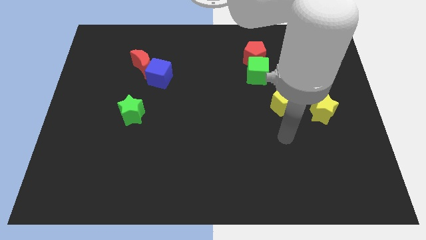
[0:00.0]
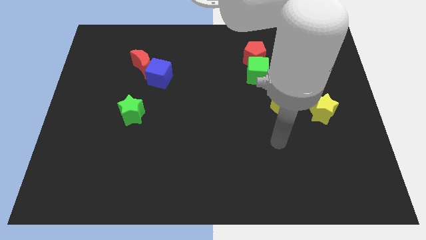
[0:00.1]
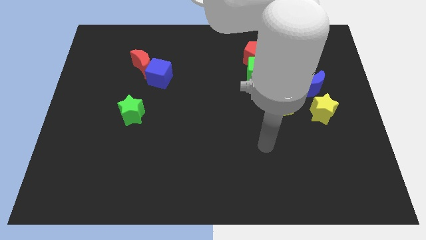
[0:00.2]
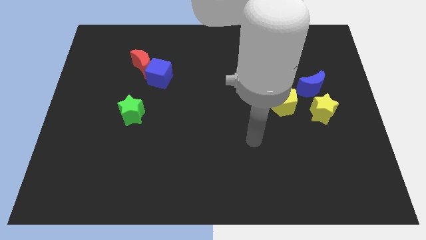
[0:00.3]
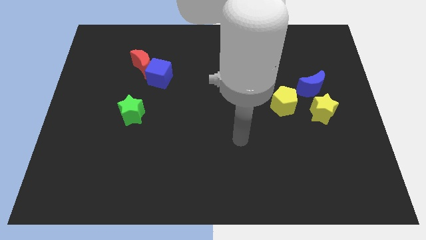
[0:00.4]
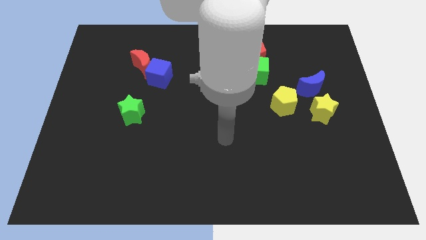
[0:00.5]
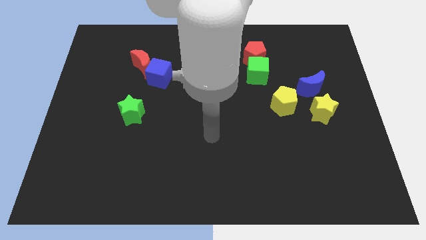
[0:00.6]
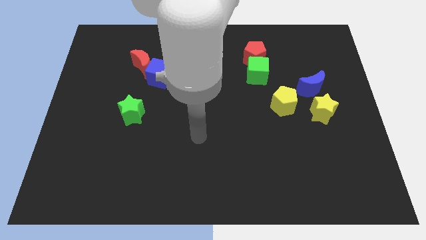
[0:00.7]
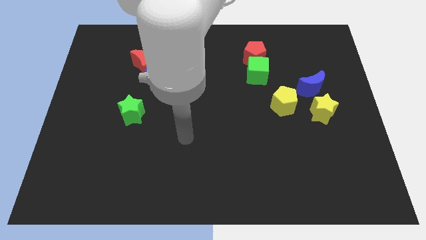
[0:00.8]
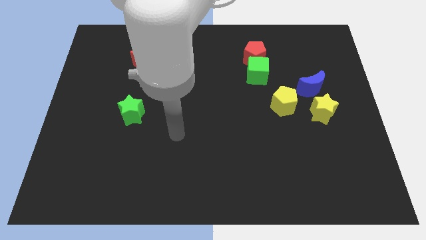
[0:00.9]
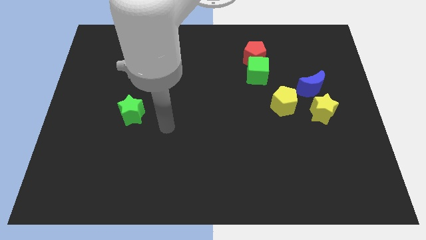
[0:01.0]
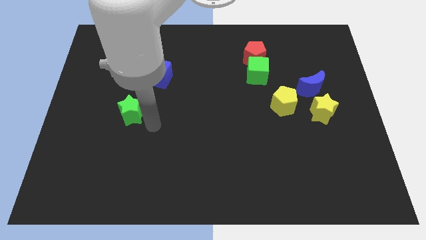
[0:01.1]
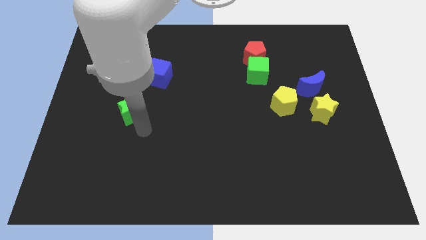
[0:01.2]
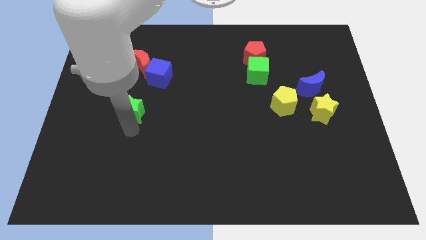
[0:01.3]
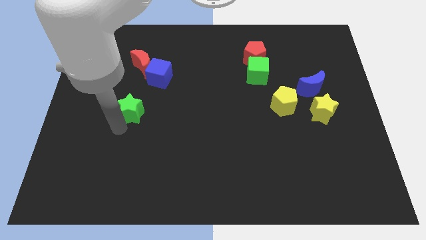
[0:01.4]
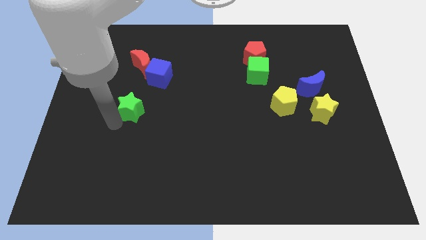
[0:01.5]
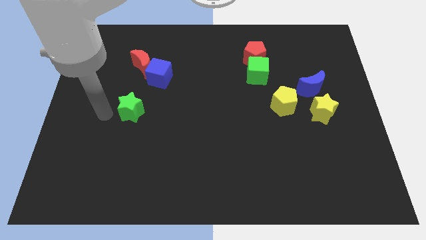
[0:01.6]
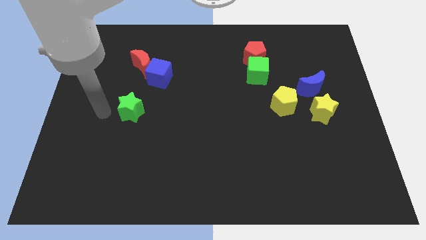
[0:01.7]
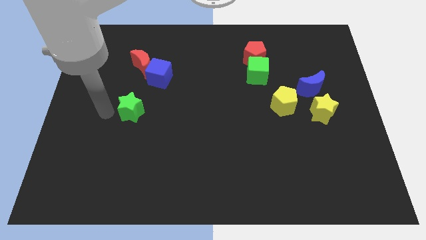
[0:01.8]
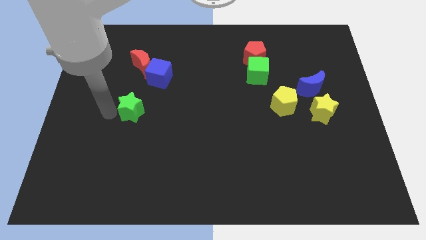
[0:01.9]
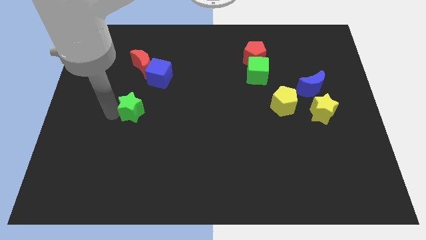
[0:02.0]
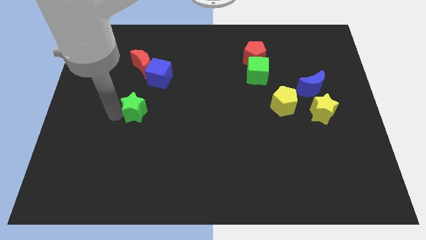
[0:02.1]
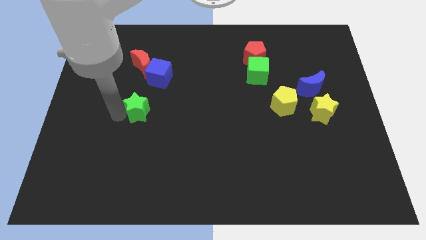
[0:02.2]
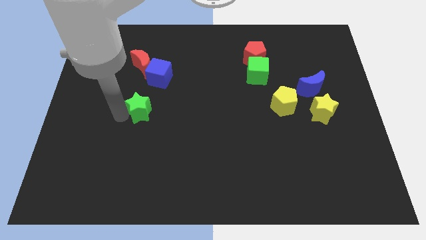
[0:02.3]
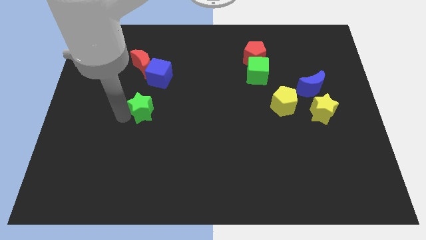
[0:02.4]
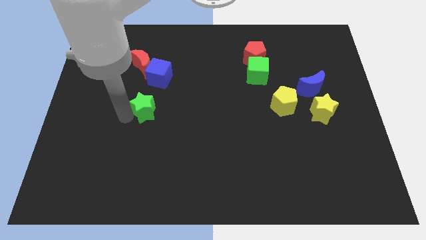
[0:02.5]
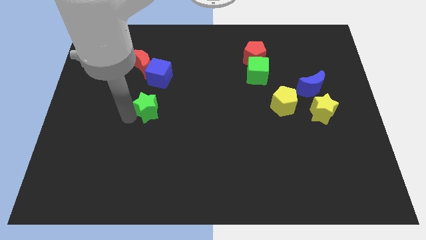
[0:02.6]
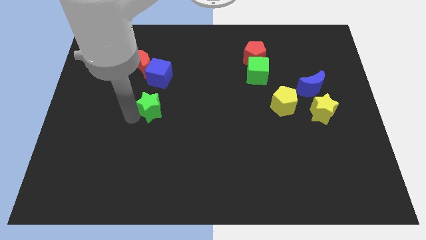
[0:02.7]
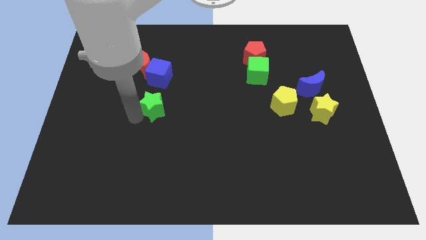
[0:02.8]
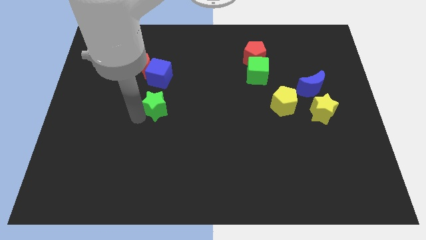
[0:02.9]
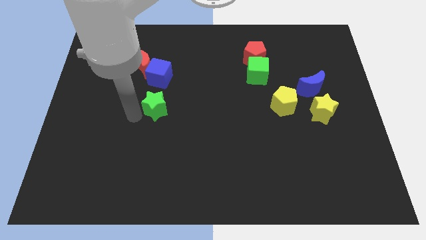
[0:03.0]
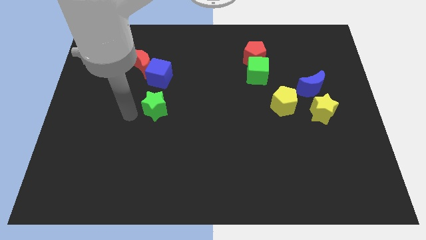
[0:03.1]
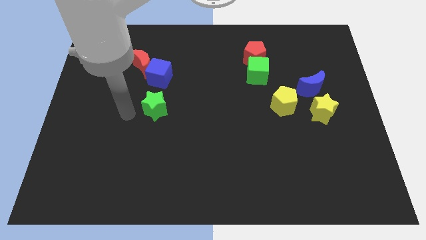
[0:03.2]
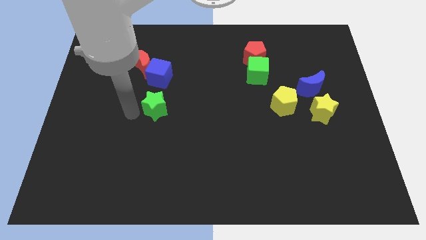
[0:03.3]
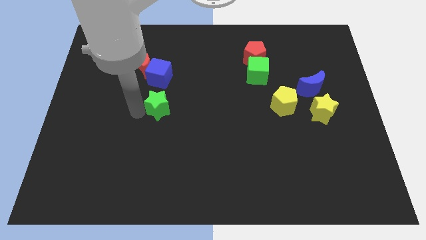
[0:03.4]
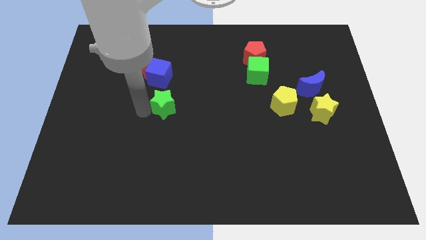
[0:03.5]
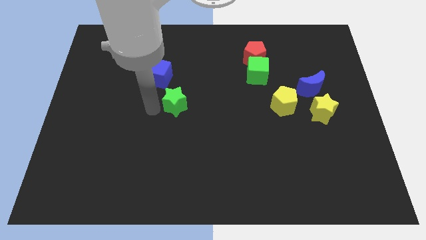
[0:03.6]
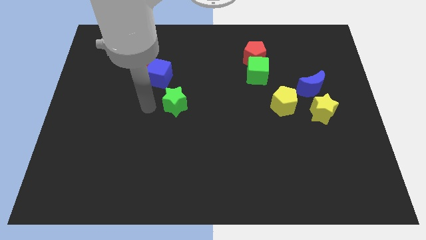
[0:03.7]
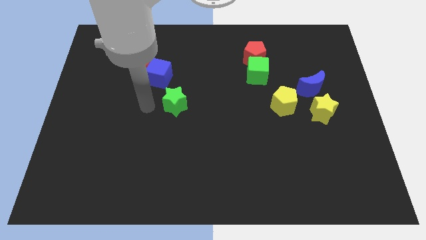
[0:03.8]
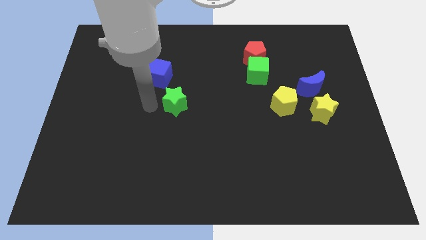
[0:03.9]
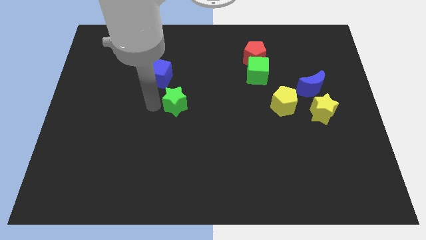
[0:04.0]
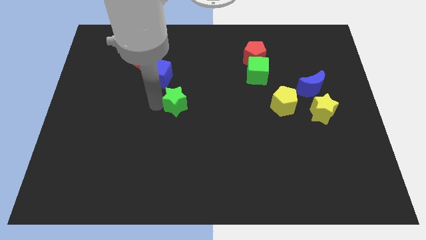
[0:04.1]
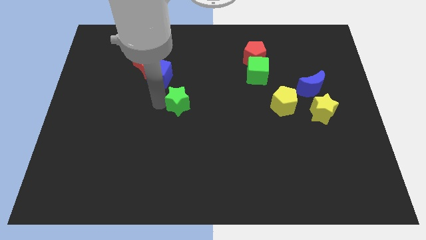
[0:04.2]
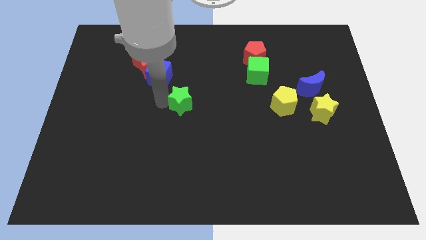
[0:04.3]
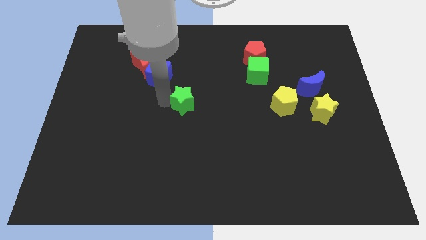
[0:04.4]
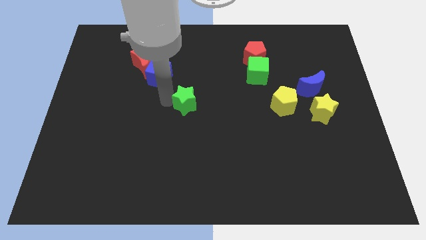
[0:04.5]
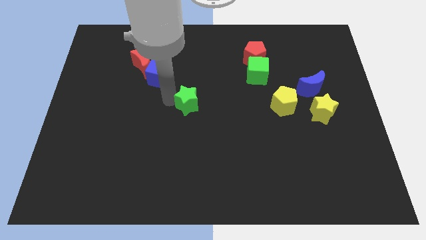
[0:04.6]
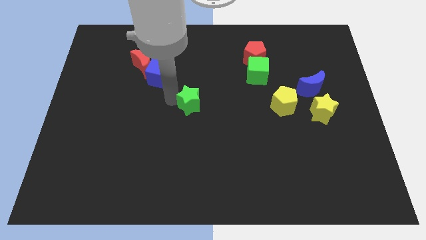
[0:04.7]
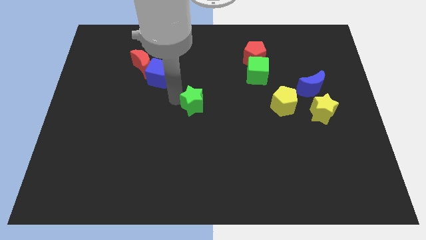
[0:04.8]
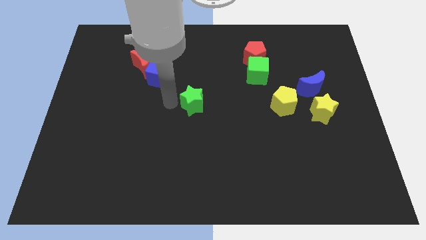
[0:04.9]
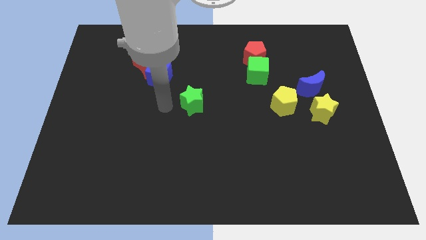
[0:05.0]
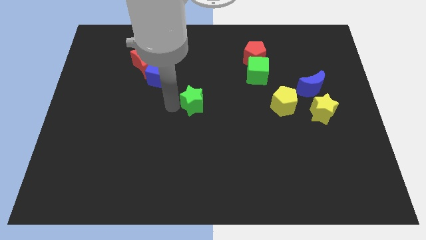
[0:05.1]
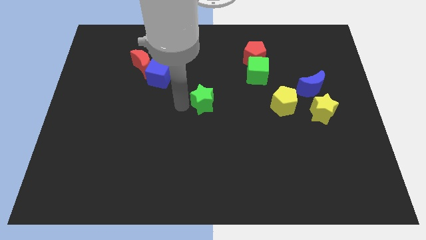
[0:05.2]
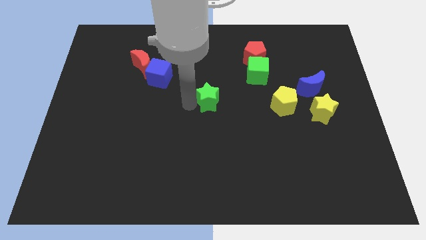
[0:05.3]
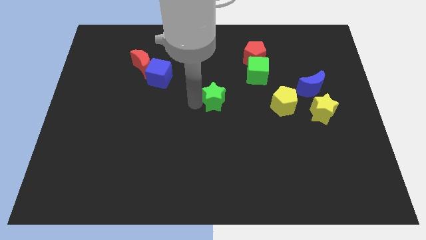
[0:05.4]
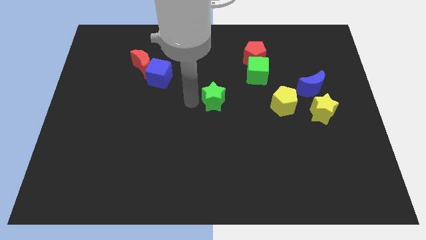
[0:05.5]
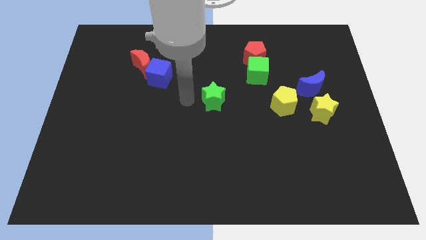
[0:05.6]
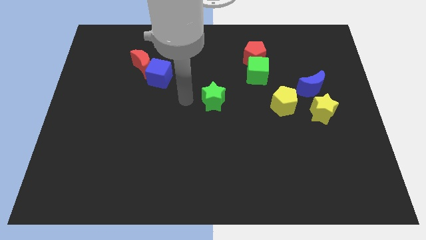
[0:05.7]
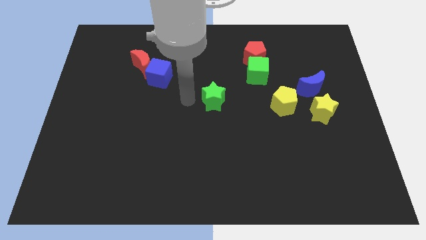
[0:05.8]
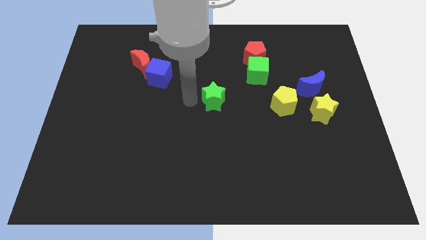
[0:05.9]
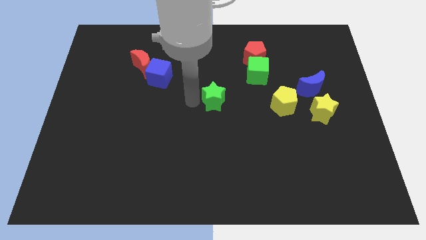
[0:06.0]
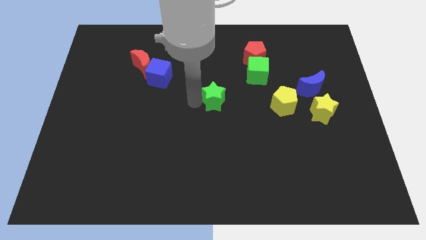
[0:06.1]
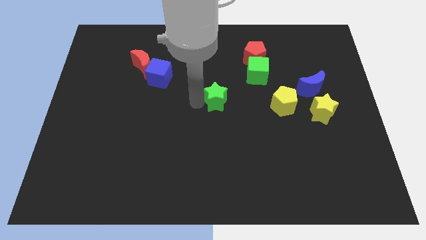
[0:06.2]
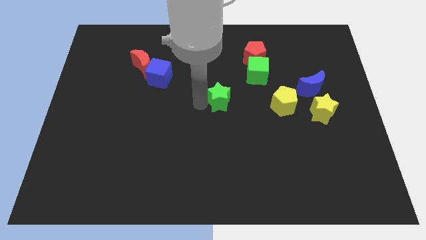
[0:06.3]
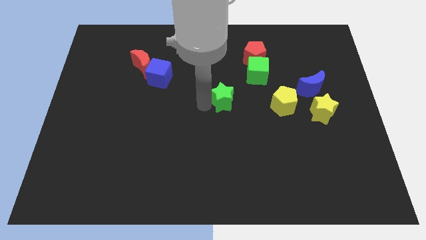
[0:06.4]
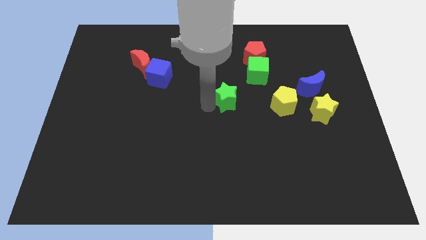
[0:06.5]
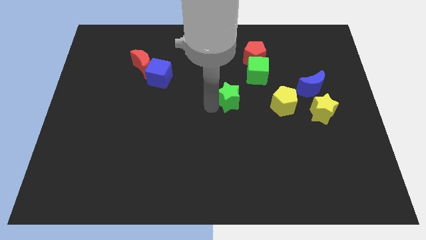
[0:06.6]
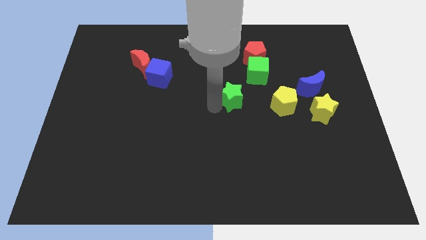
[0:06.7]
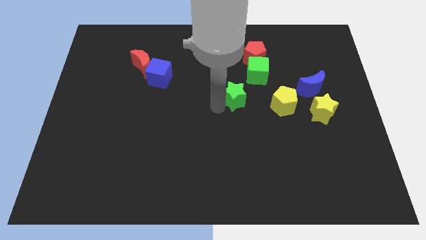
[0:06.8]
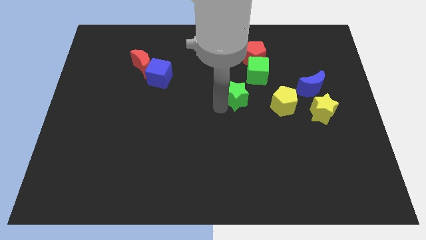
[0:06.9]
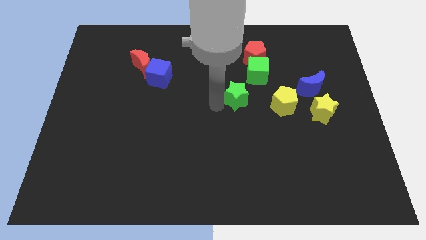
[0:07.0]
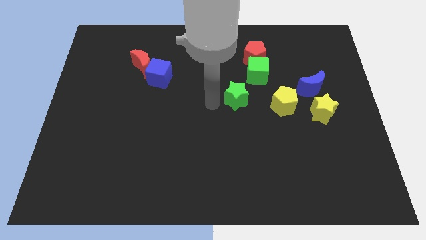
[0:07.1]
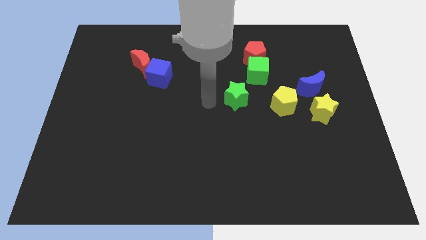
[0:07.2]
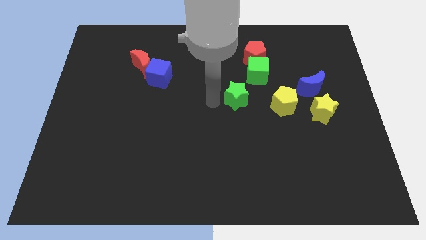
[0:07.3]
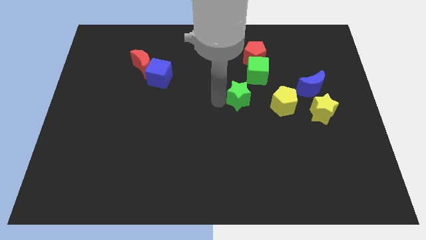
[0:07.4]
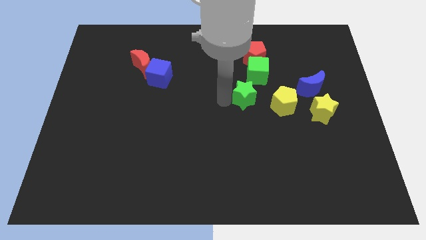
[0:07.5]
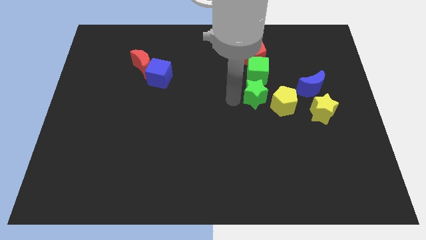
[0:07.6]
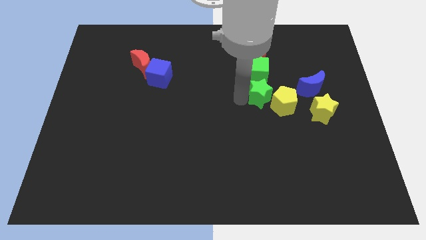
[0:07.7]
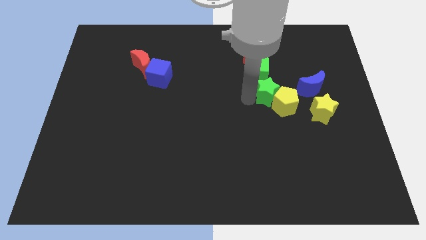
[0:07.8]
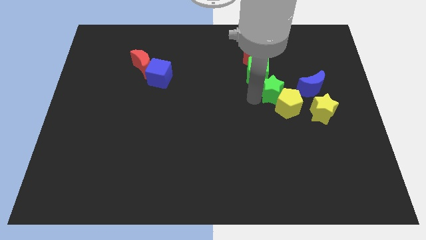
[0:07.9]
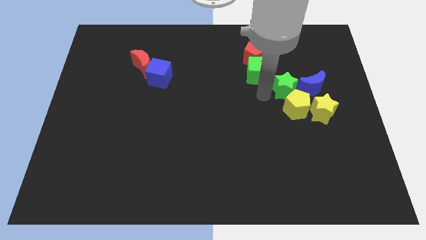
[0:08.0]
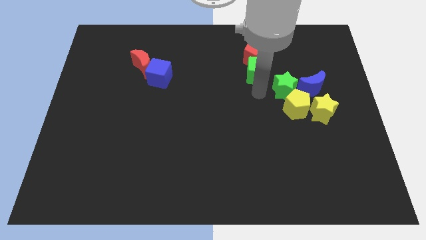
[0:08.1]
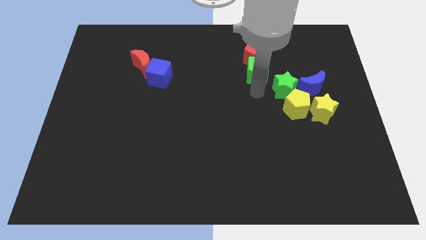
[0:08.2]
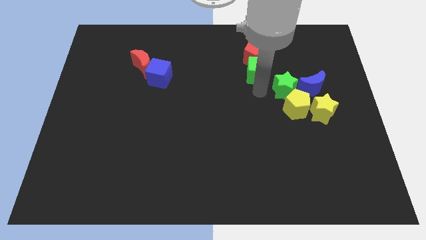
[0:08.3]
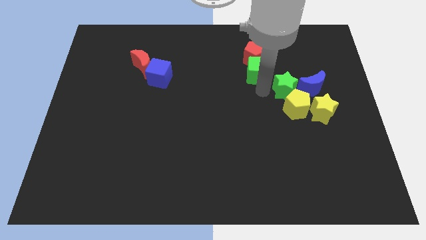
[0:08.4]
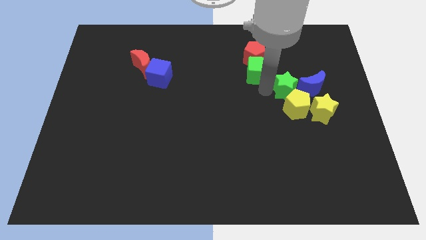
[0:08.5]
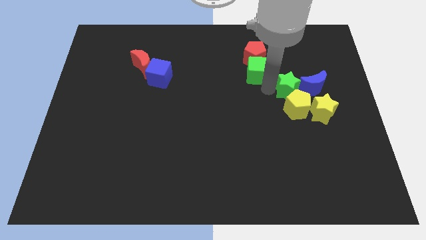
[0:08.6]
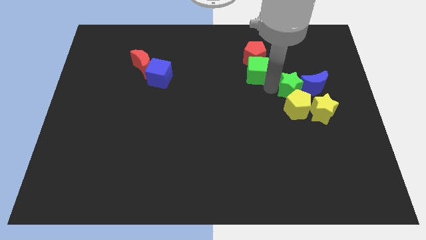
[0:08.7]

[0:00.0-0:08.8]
slide the green star towards the blue moon
